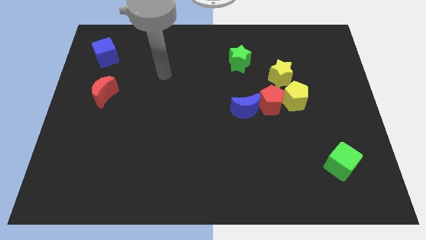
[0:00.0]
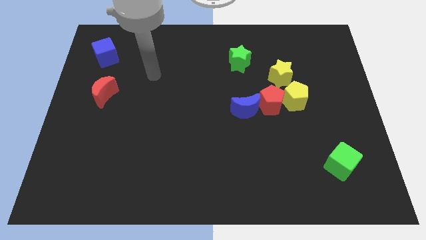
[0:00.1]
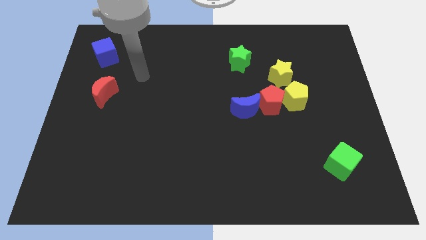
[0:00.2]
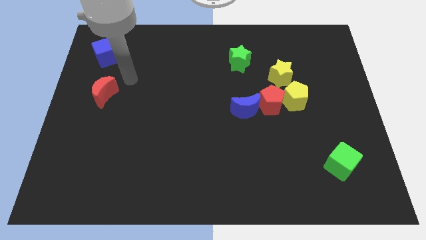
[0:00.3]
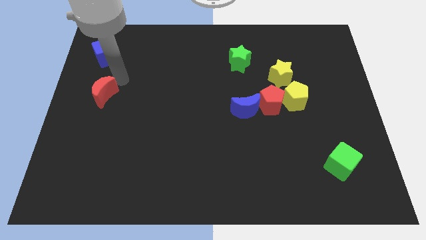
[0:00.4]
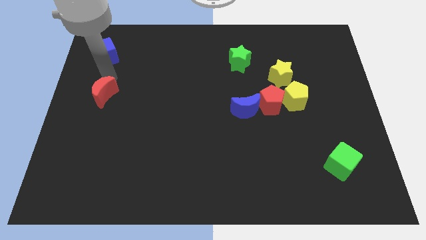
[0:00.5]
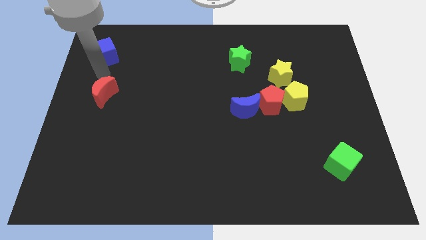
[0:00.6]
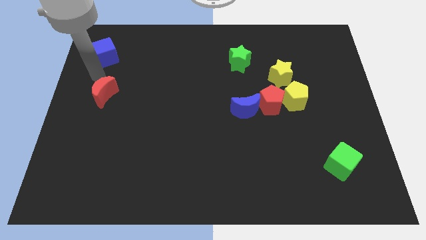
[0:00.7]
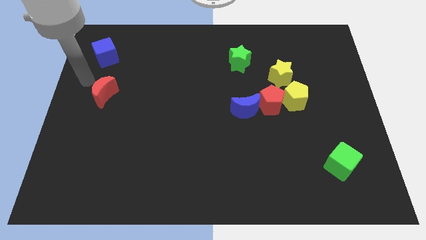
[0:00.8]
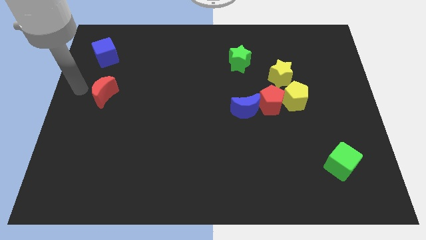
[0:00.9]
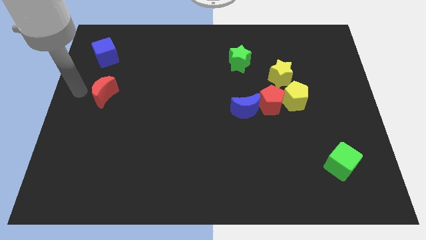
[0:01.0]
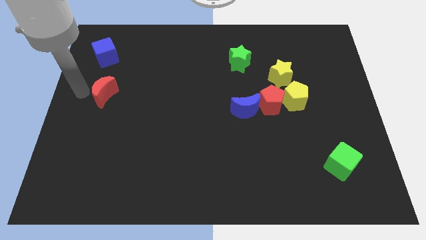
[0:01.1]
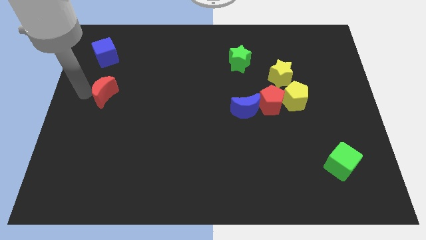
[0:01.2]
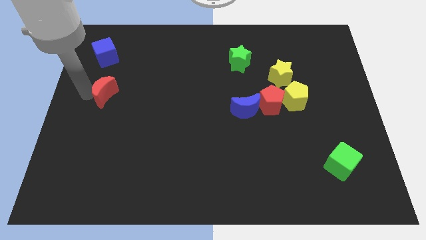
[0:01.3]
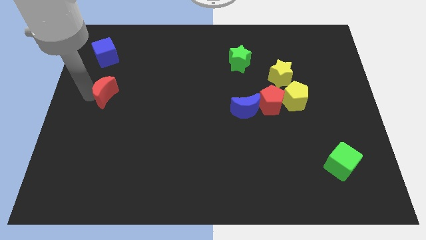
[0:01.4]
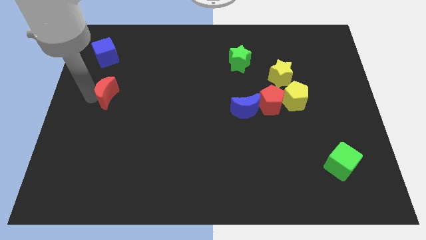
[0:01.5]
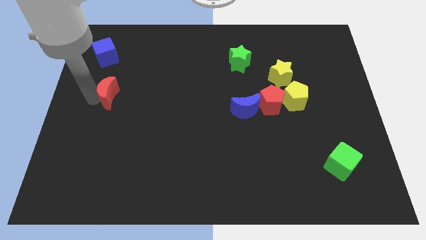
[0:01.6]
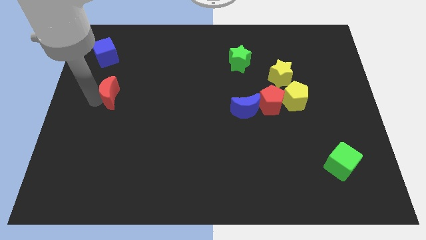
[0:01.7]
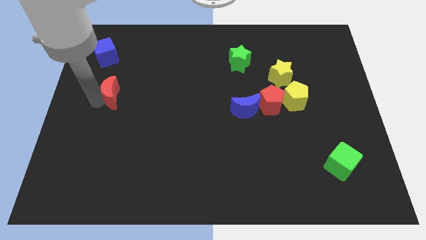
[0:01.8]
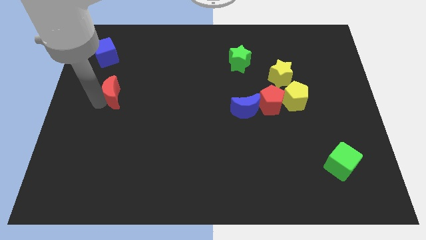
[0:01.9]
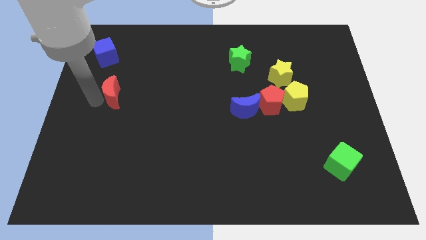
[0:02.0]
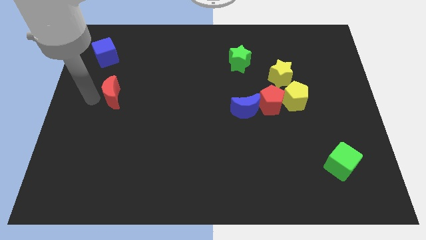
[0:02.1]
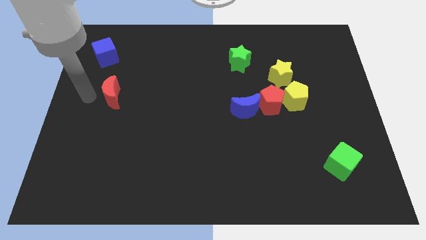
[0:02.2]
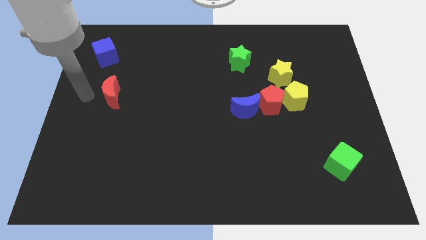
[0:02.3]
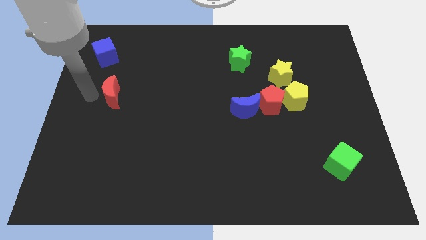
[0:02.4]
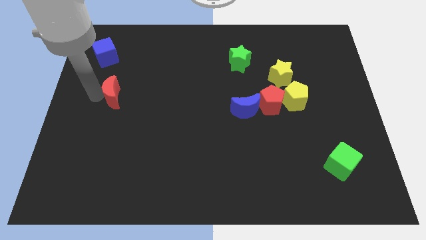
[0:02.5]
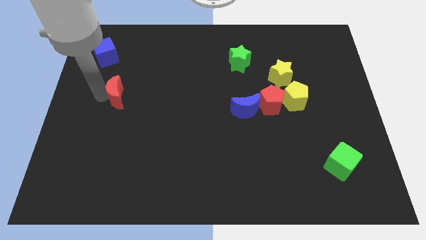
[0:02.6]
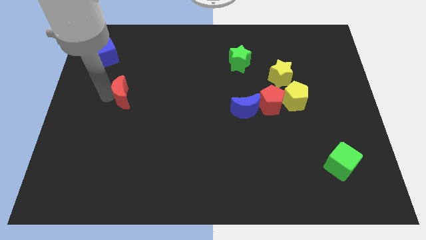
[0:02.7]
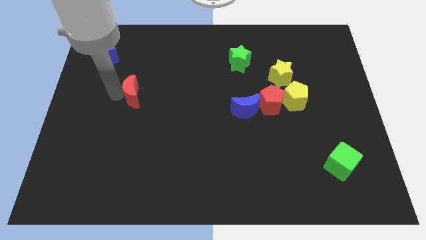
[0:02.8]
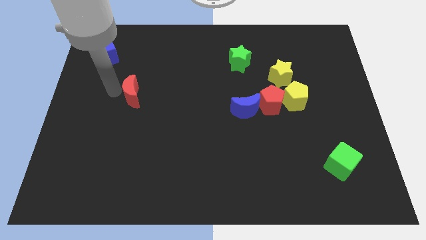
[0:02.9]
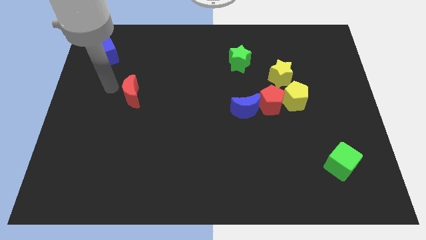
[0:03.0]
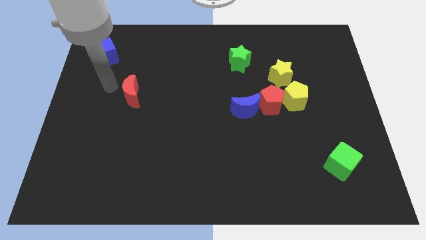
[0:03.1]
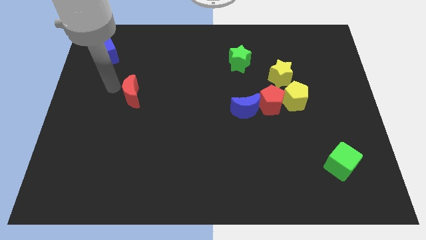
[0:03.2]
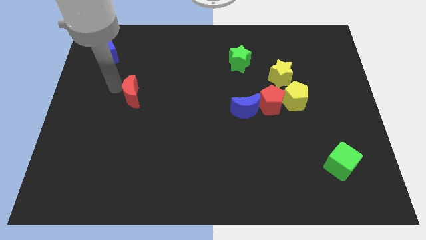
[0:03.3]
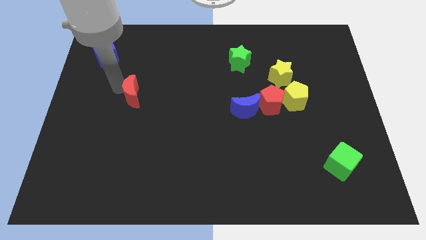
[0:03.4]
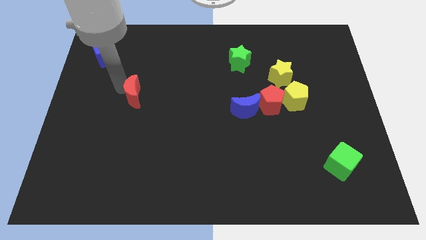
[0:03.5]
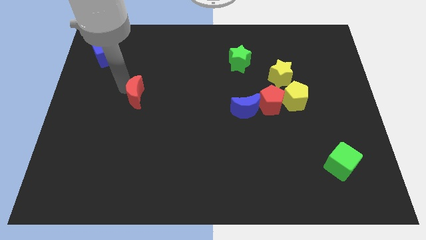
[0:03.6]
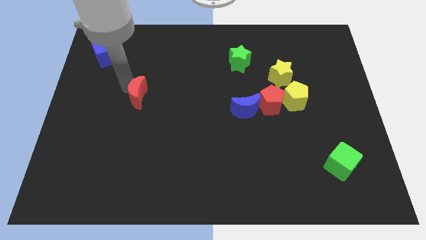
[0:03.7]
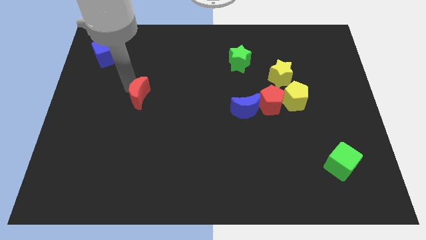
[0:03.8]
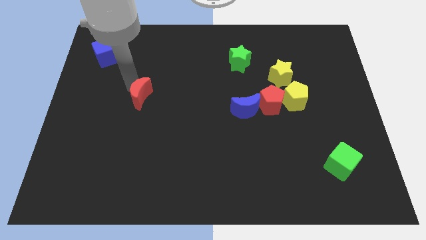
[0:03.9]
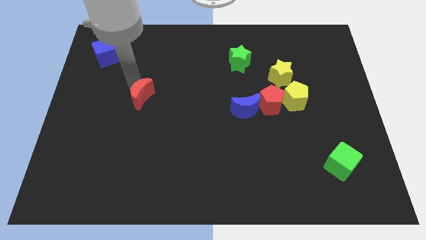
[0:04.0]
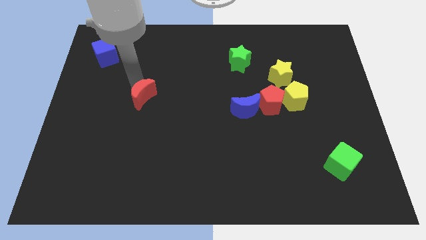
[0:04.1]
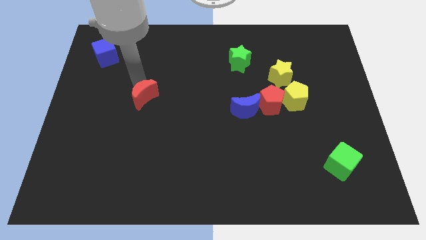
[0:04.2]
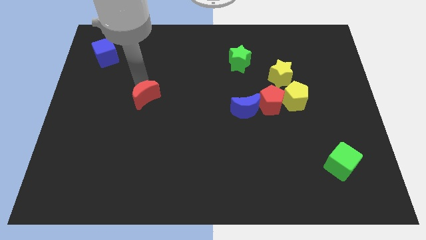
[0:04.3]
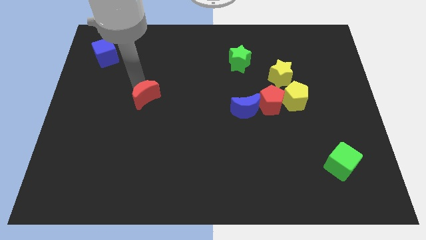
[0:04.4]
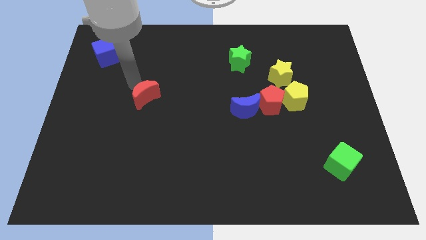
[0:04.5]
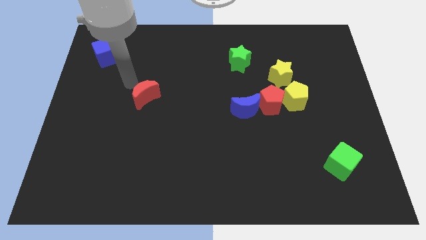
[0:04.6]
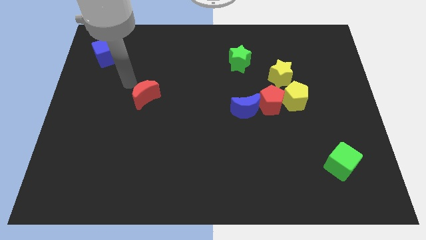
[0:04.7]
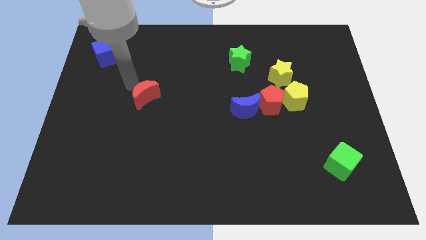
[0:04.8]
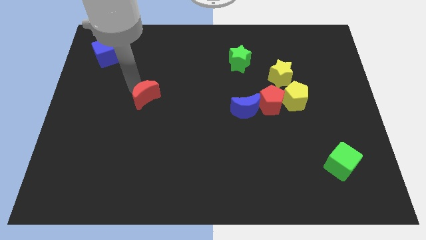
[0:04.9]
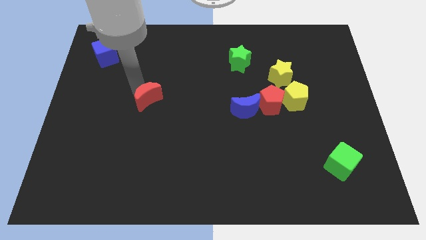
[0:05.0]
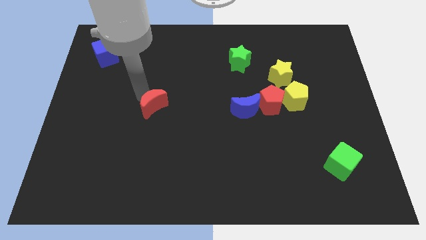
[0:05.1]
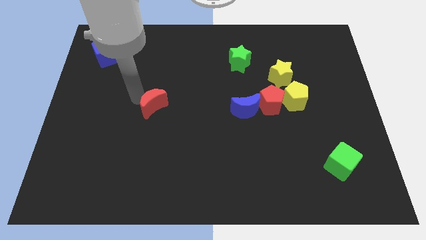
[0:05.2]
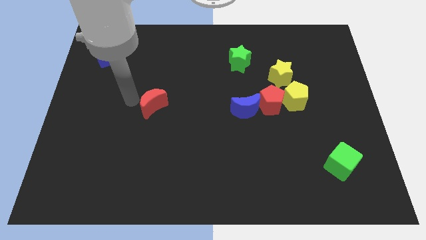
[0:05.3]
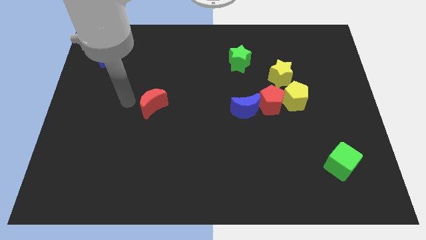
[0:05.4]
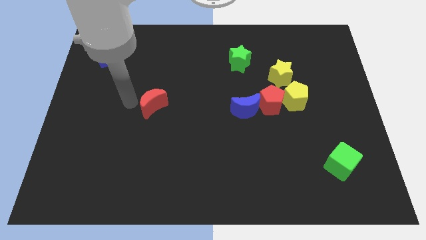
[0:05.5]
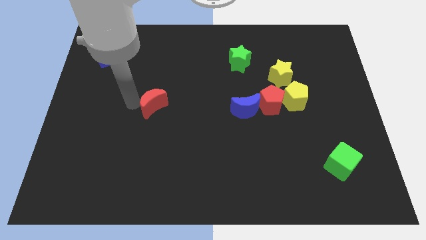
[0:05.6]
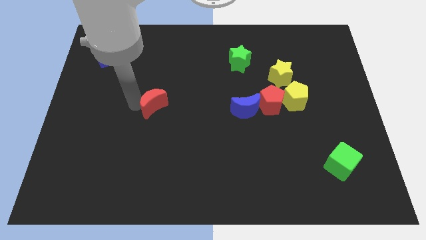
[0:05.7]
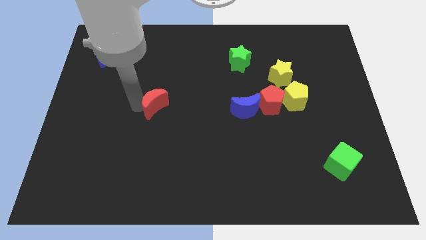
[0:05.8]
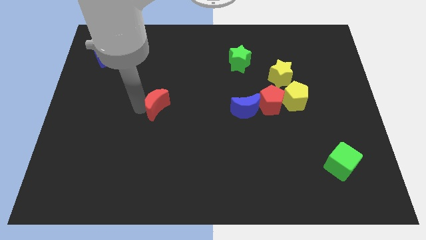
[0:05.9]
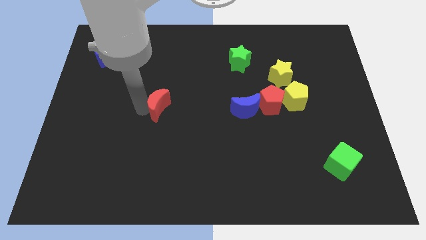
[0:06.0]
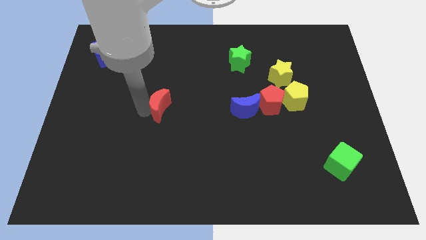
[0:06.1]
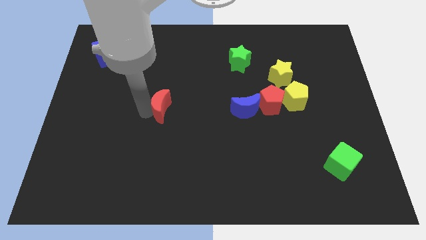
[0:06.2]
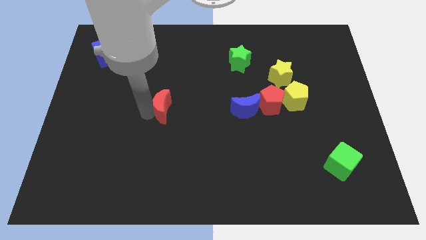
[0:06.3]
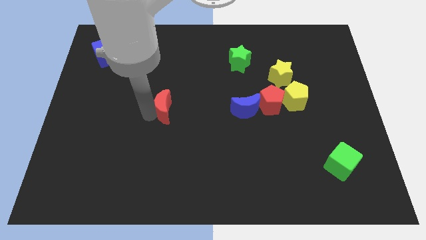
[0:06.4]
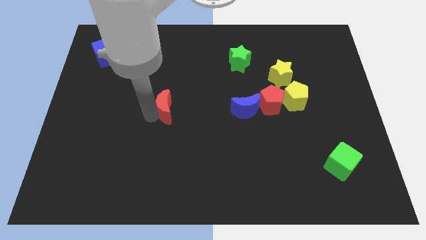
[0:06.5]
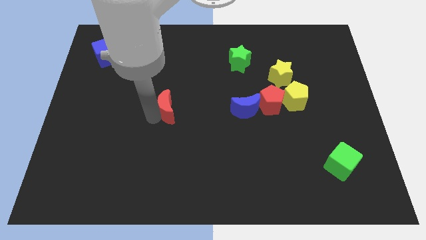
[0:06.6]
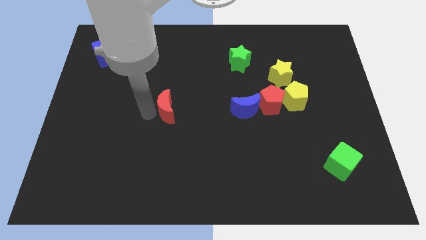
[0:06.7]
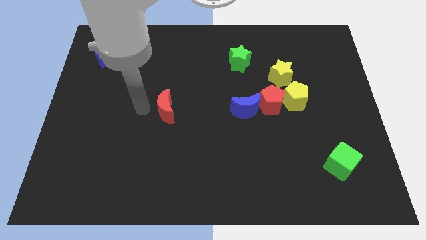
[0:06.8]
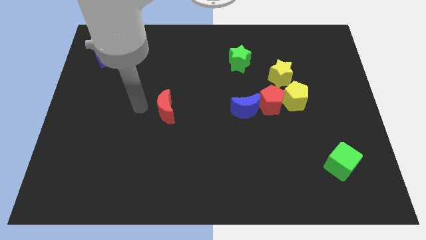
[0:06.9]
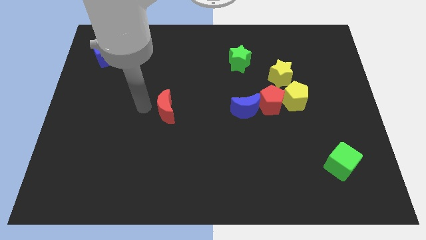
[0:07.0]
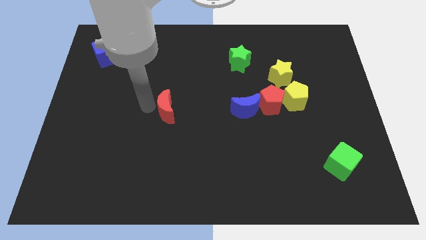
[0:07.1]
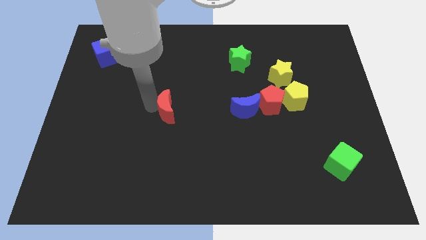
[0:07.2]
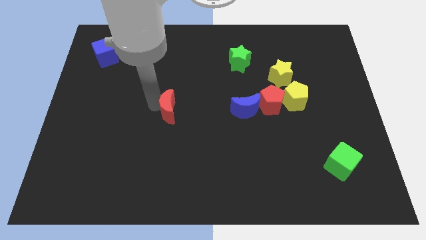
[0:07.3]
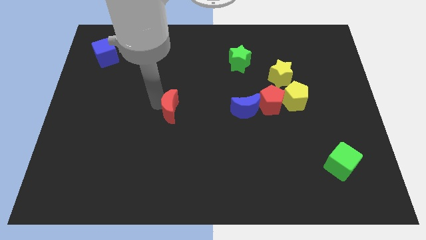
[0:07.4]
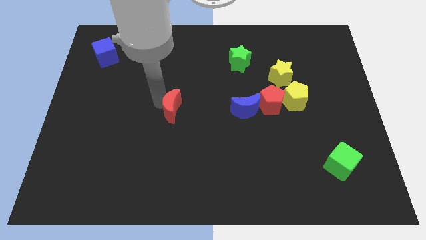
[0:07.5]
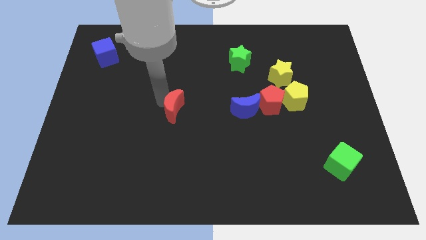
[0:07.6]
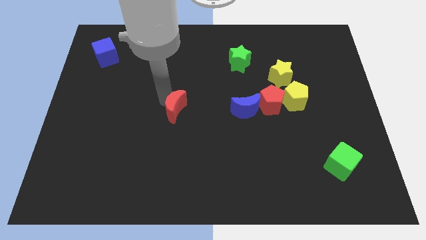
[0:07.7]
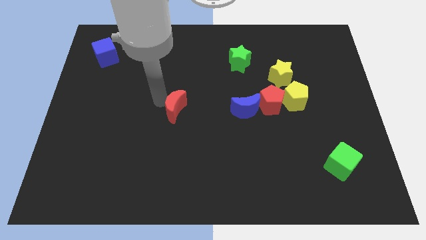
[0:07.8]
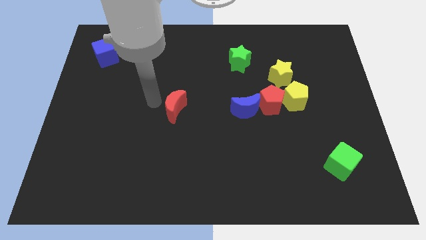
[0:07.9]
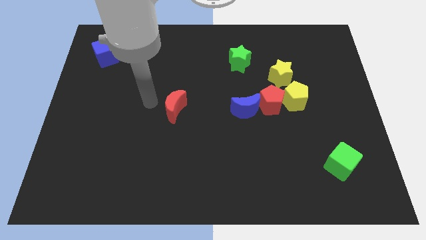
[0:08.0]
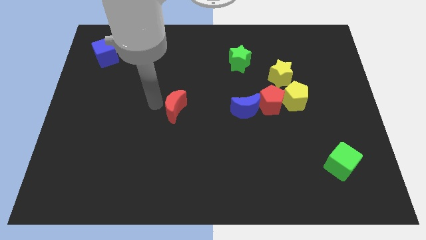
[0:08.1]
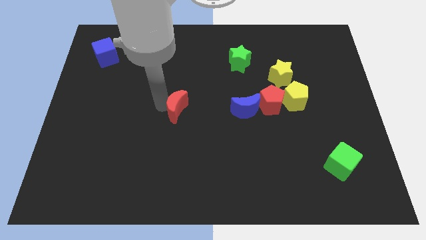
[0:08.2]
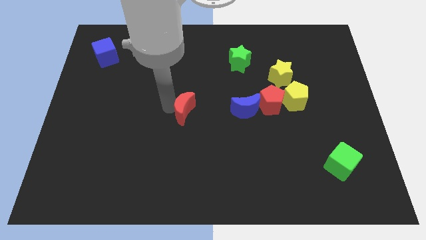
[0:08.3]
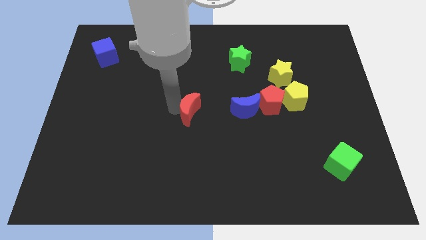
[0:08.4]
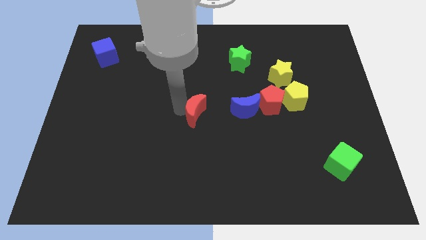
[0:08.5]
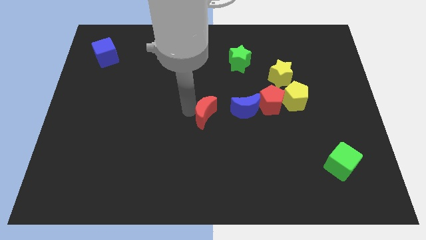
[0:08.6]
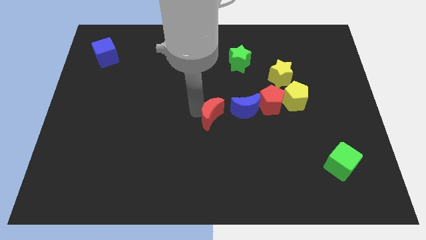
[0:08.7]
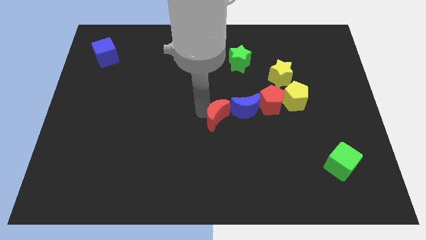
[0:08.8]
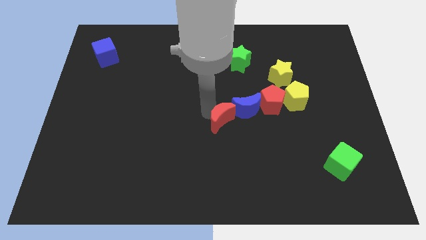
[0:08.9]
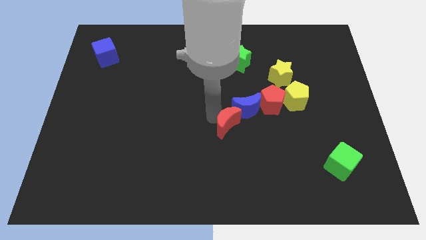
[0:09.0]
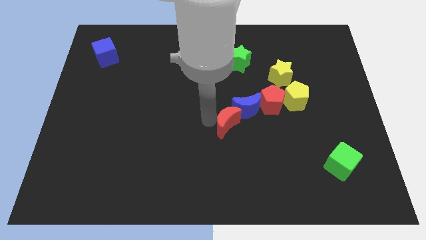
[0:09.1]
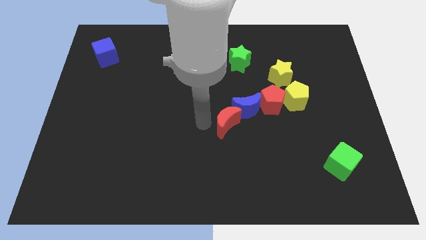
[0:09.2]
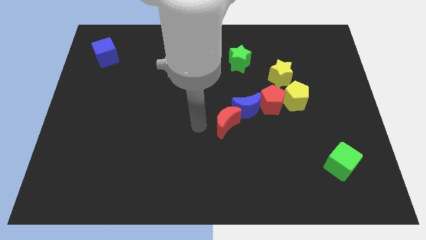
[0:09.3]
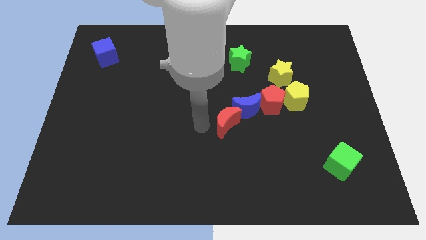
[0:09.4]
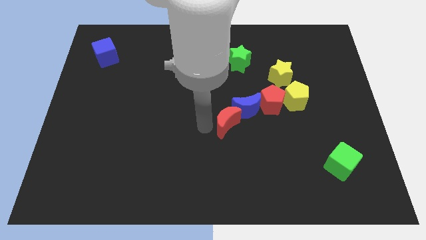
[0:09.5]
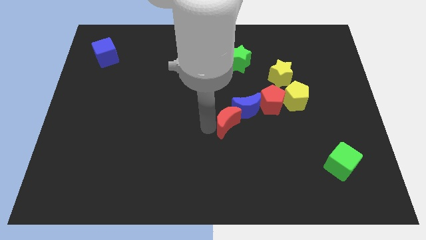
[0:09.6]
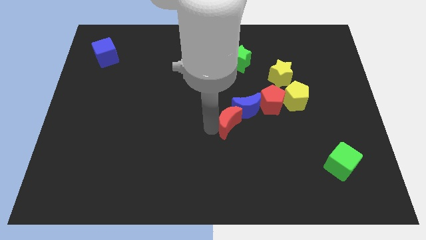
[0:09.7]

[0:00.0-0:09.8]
slide the red moon to the bottom left of the red pentagon
